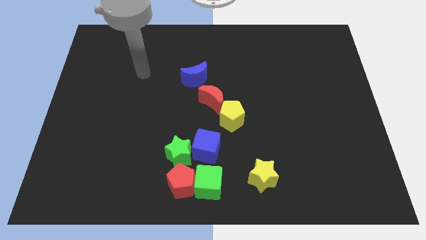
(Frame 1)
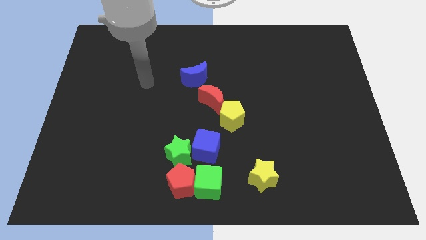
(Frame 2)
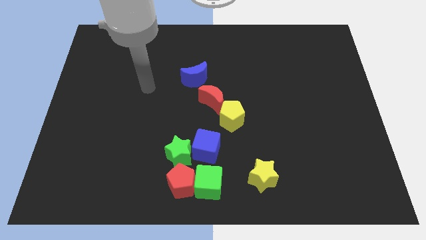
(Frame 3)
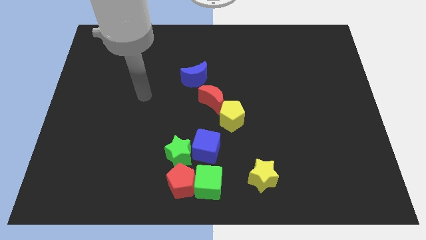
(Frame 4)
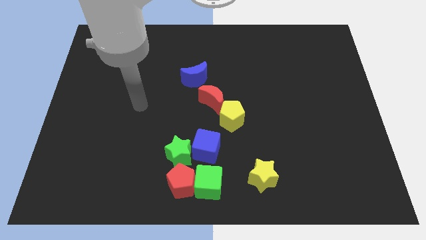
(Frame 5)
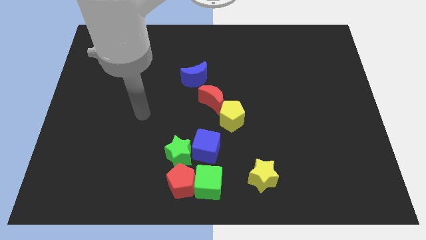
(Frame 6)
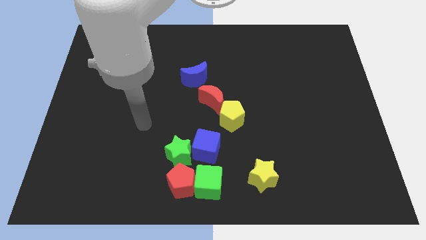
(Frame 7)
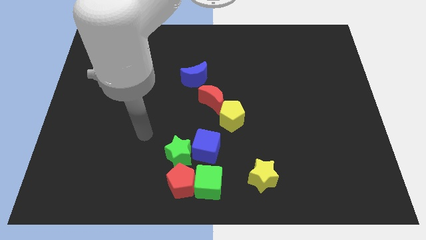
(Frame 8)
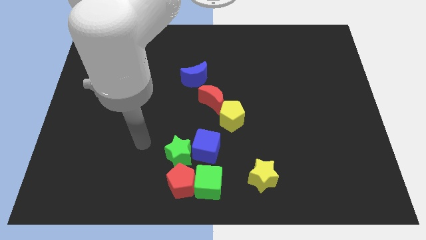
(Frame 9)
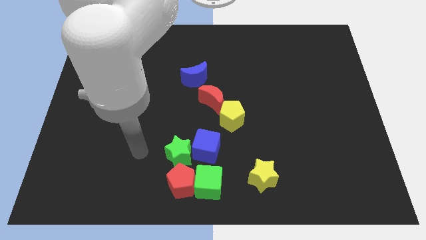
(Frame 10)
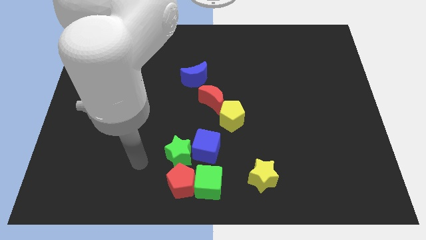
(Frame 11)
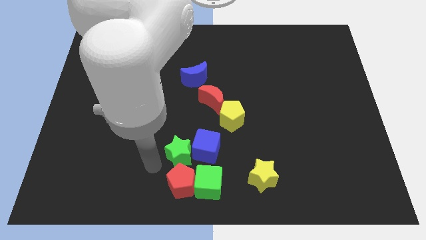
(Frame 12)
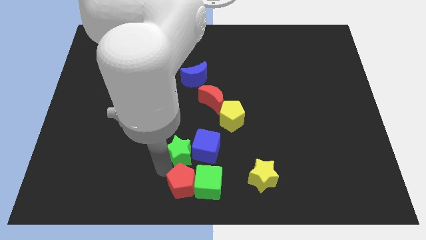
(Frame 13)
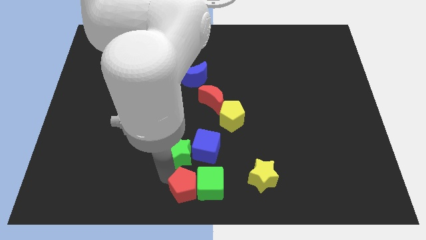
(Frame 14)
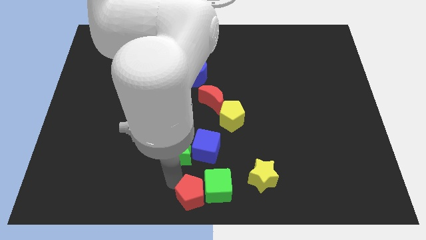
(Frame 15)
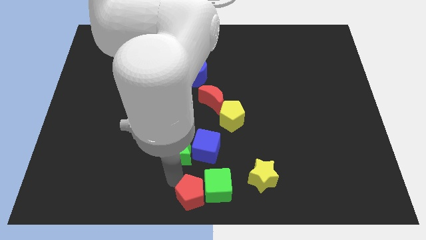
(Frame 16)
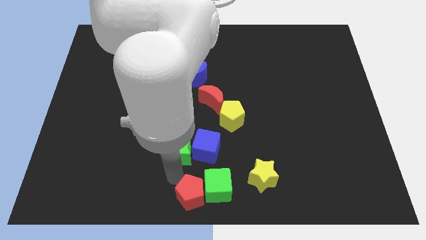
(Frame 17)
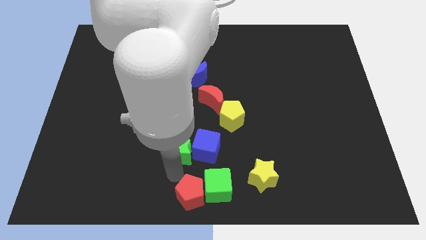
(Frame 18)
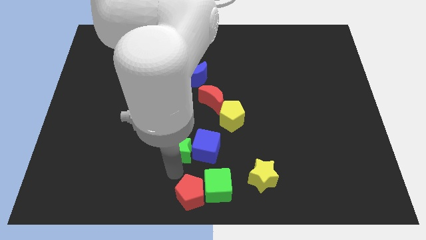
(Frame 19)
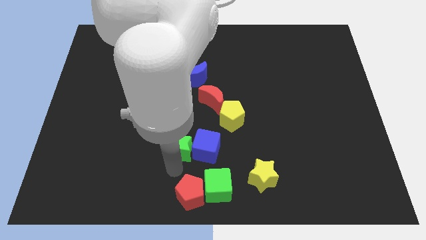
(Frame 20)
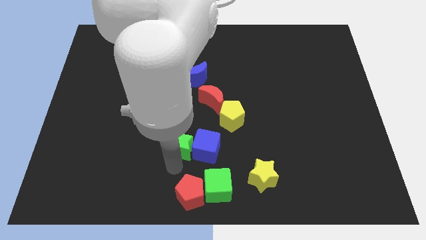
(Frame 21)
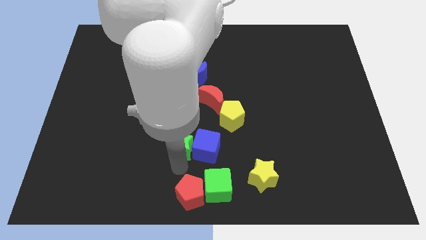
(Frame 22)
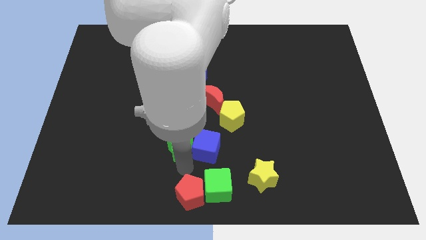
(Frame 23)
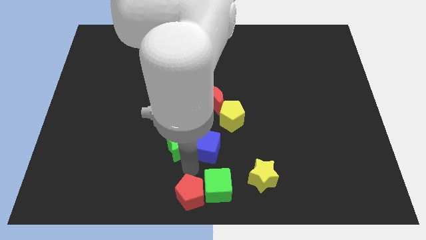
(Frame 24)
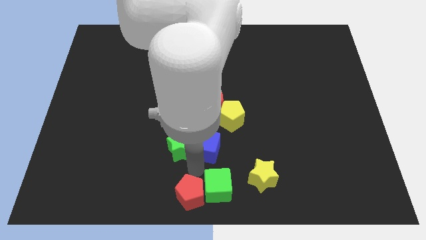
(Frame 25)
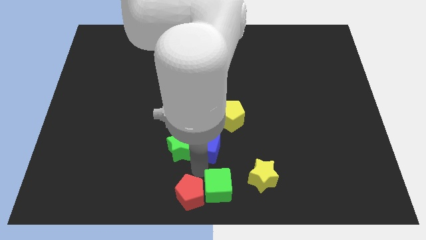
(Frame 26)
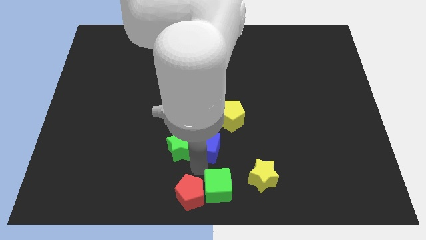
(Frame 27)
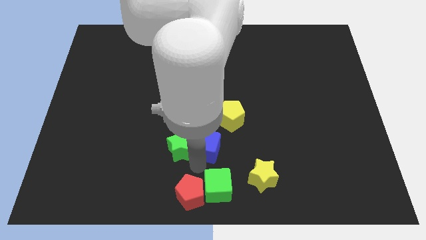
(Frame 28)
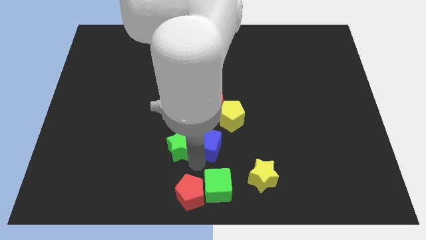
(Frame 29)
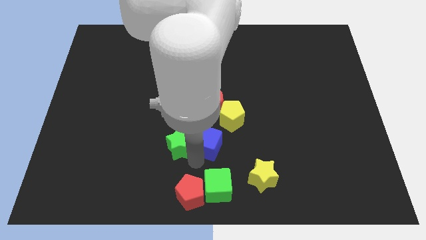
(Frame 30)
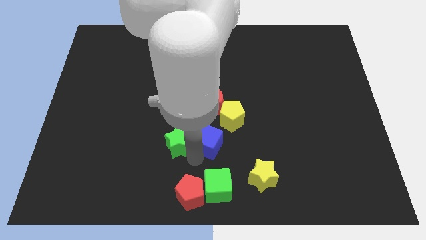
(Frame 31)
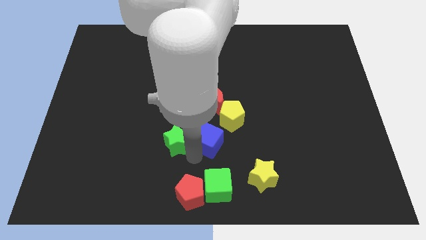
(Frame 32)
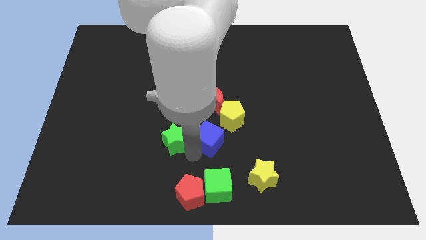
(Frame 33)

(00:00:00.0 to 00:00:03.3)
move the green star away from the group of blocks

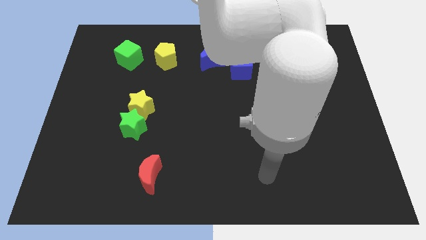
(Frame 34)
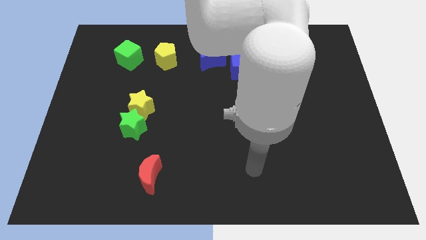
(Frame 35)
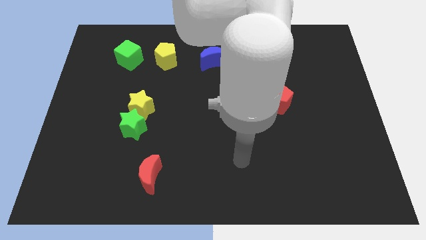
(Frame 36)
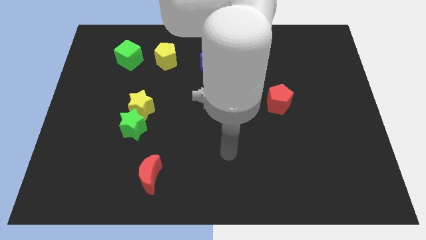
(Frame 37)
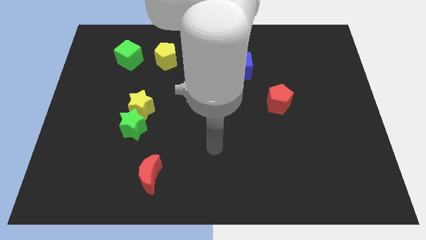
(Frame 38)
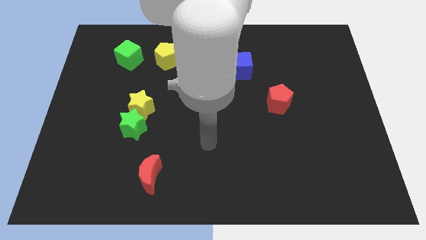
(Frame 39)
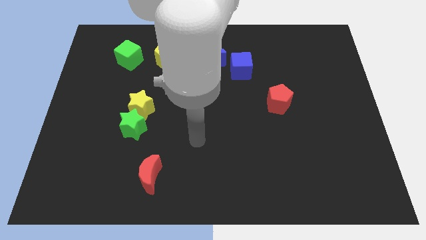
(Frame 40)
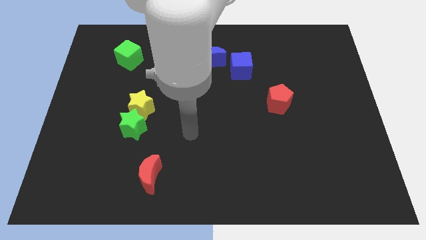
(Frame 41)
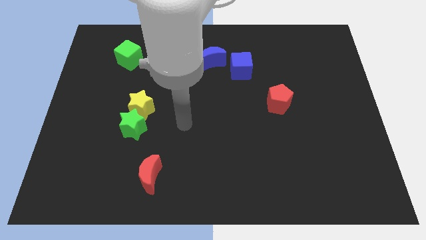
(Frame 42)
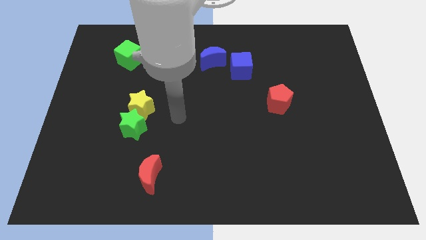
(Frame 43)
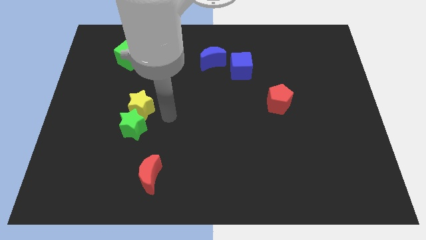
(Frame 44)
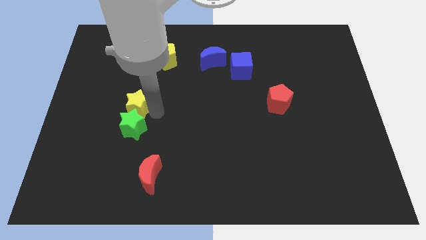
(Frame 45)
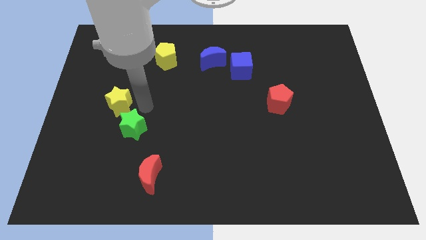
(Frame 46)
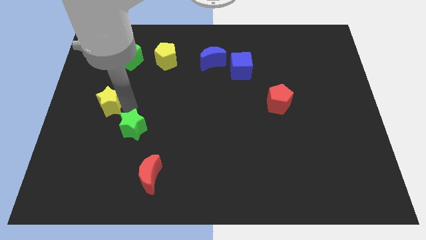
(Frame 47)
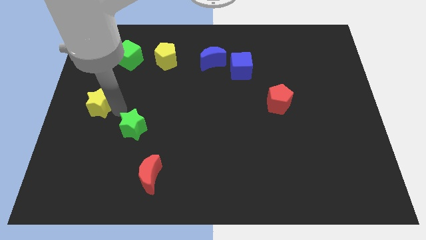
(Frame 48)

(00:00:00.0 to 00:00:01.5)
move the green star away from the yellow star

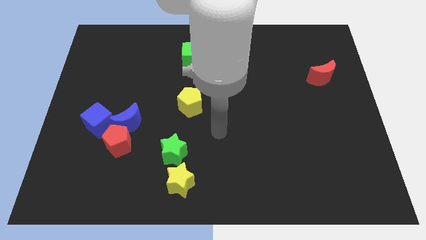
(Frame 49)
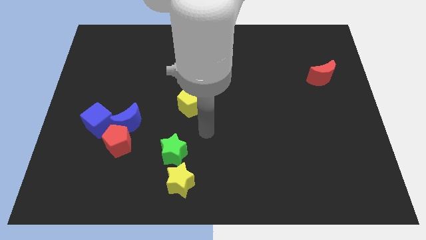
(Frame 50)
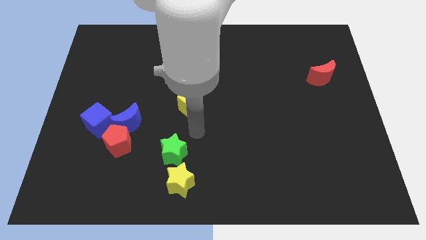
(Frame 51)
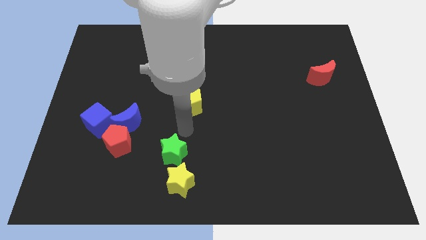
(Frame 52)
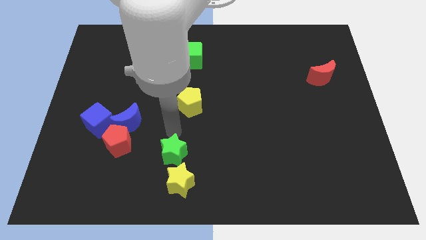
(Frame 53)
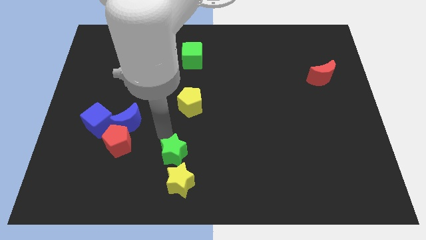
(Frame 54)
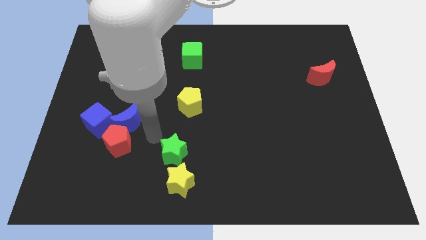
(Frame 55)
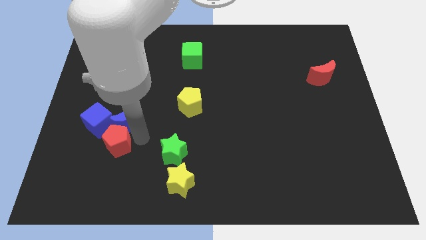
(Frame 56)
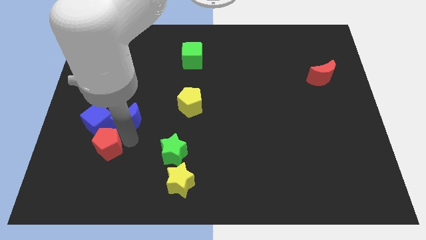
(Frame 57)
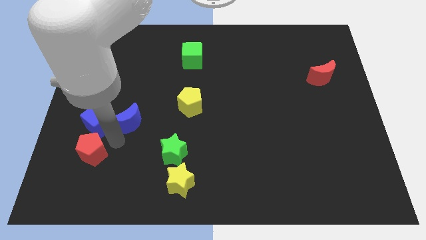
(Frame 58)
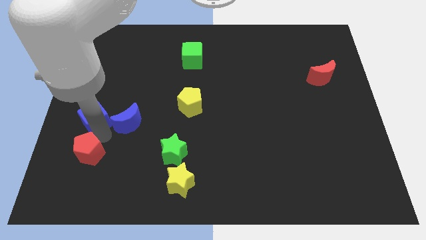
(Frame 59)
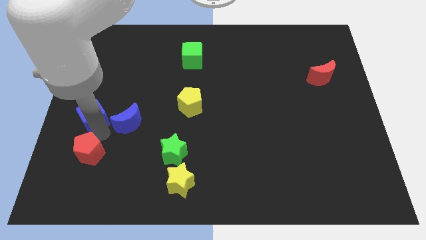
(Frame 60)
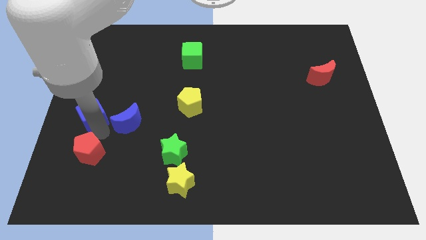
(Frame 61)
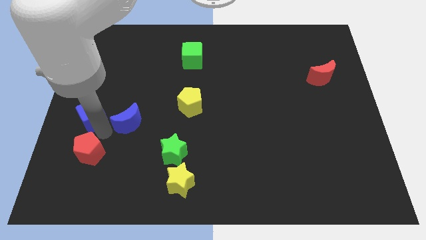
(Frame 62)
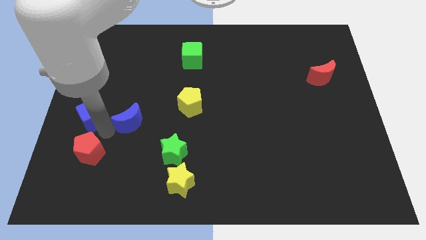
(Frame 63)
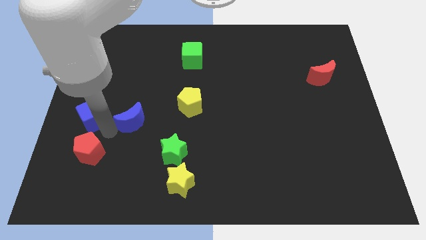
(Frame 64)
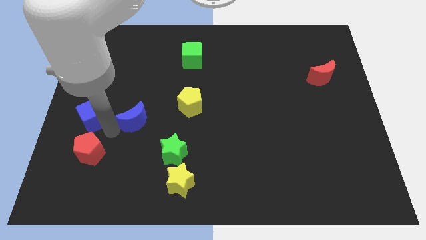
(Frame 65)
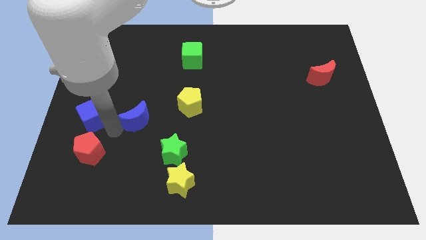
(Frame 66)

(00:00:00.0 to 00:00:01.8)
move the blue moon away from the red pentagon and blue cube

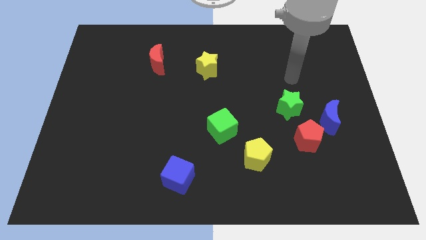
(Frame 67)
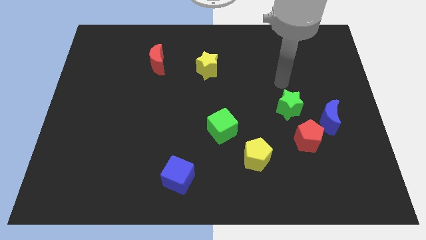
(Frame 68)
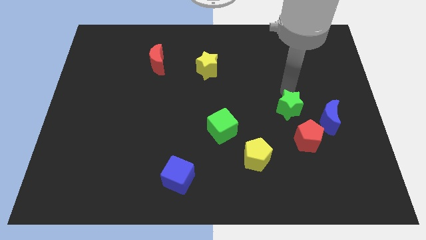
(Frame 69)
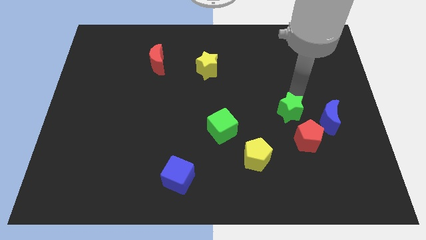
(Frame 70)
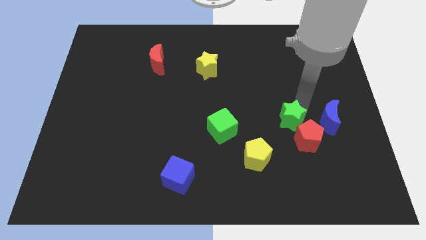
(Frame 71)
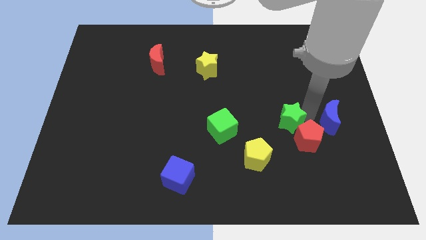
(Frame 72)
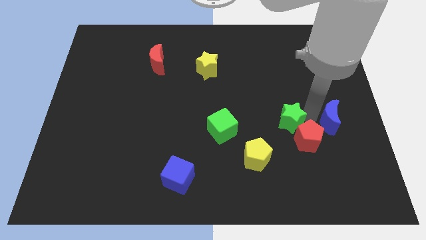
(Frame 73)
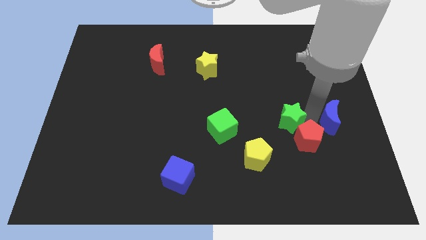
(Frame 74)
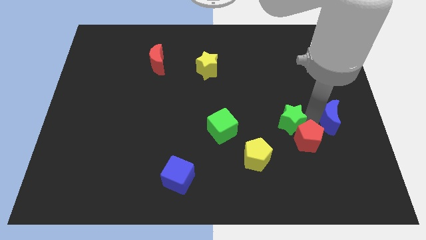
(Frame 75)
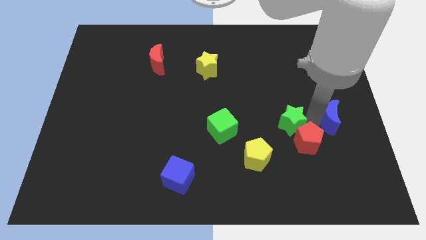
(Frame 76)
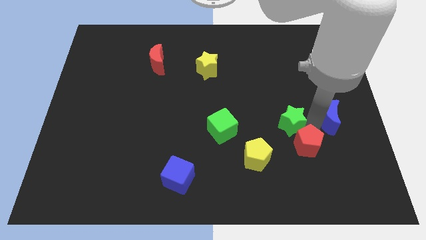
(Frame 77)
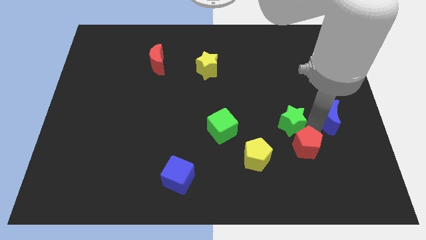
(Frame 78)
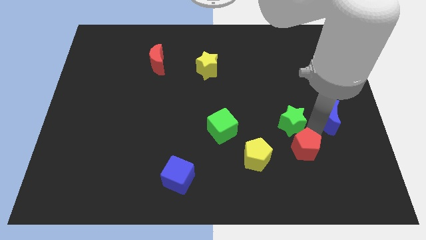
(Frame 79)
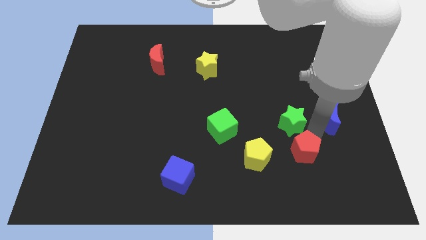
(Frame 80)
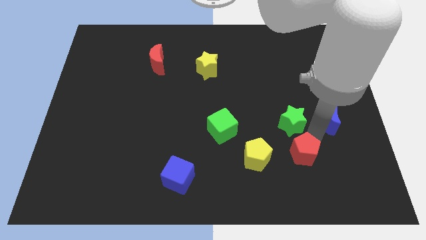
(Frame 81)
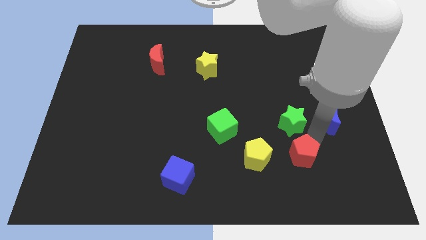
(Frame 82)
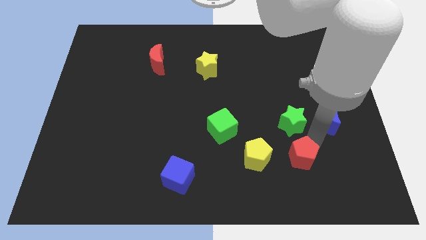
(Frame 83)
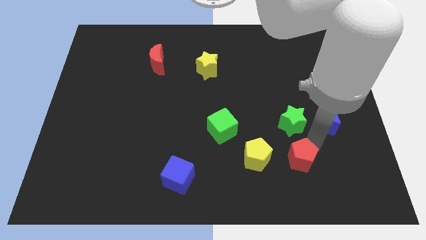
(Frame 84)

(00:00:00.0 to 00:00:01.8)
pull the red pentagon apart from the blue moon and green star

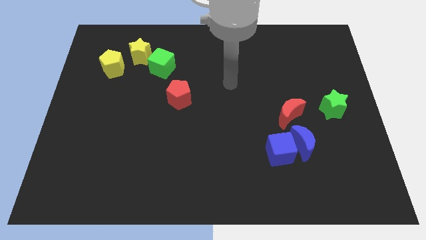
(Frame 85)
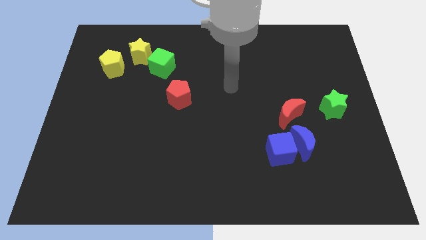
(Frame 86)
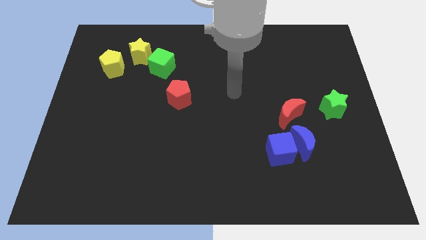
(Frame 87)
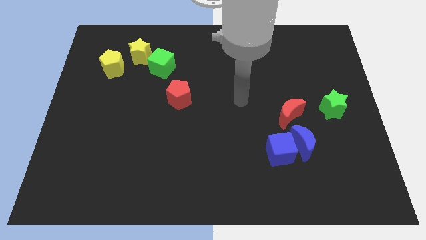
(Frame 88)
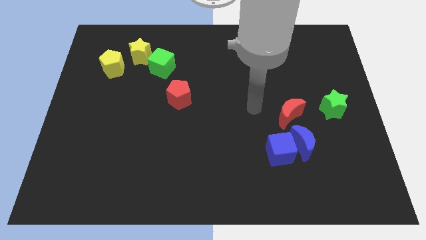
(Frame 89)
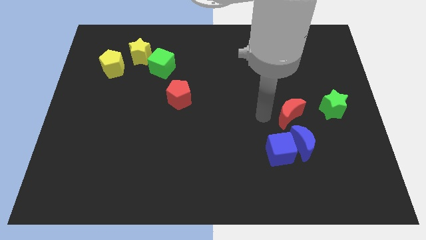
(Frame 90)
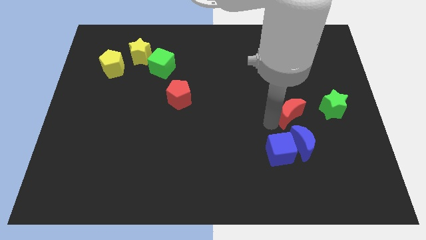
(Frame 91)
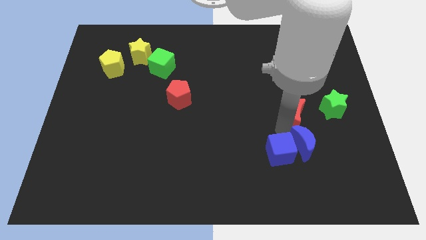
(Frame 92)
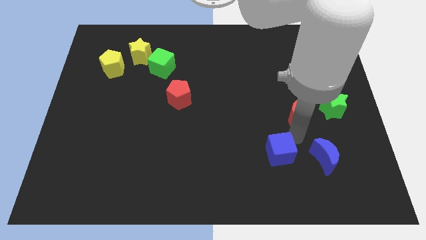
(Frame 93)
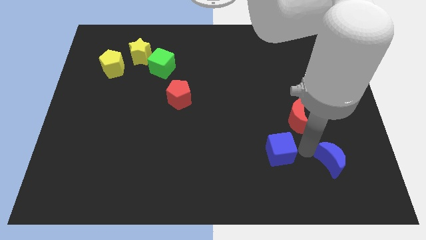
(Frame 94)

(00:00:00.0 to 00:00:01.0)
move the blue cube away from the blue moon
